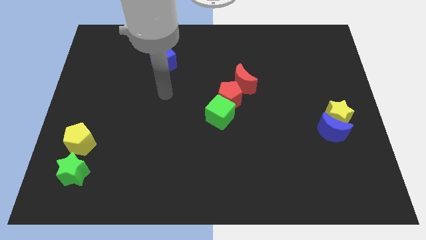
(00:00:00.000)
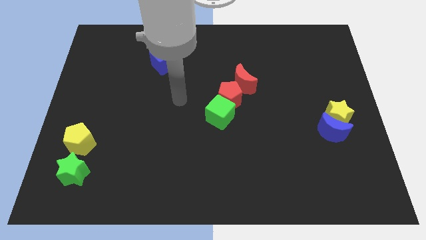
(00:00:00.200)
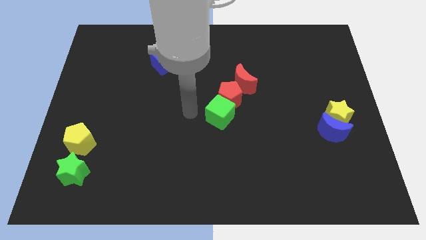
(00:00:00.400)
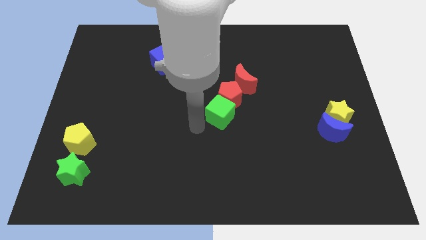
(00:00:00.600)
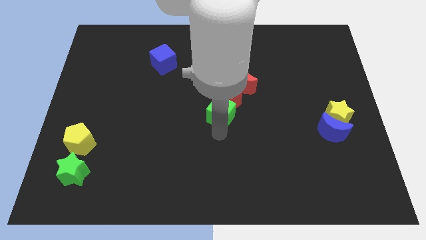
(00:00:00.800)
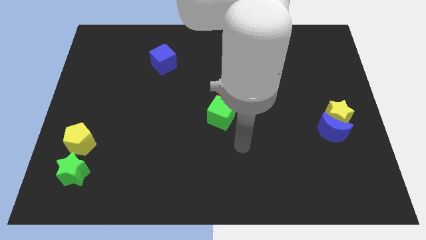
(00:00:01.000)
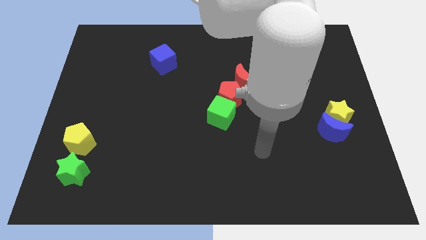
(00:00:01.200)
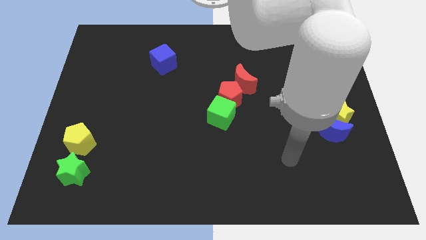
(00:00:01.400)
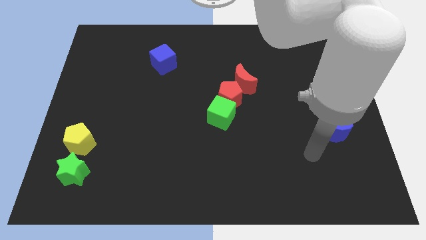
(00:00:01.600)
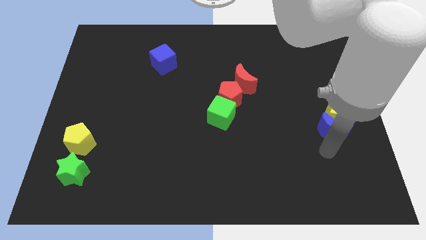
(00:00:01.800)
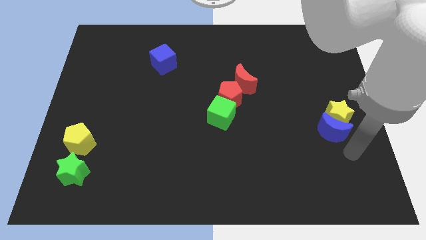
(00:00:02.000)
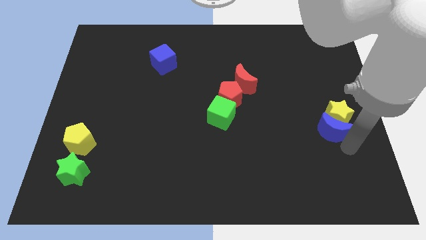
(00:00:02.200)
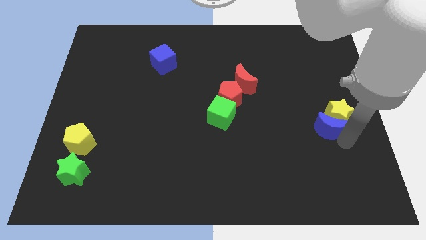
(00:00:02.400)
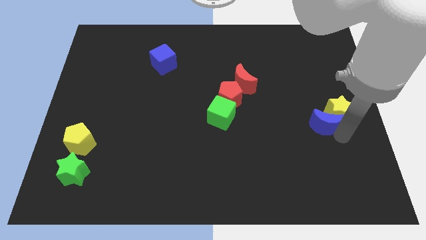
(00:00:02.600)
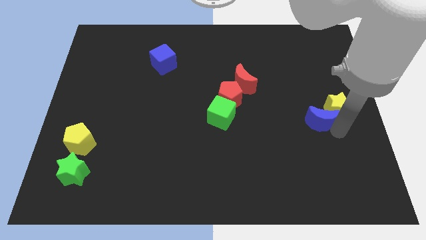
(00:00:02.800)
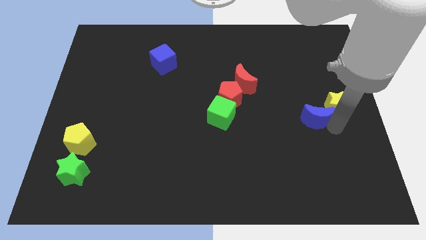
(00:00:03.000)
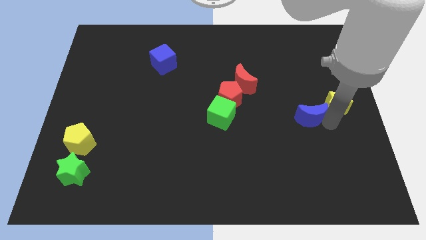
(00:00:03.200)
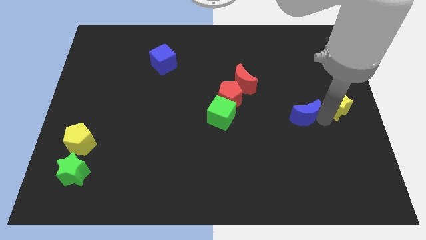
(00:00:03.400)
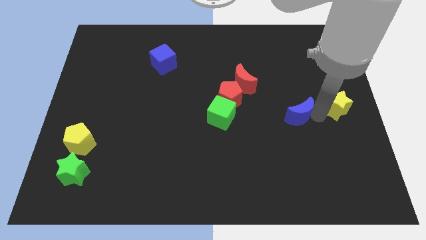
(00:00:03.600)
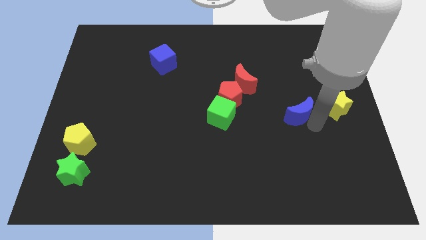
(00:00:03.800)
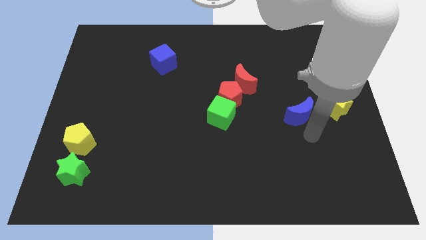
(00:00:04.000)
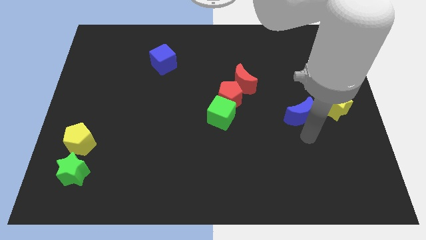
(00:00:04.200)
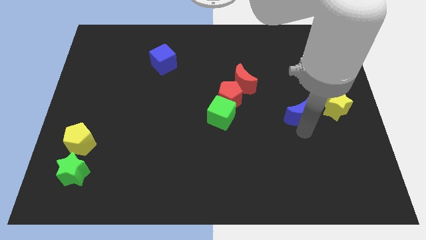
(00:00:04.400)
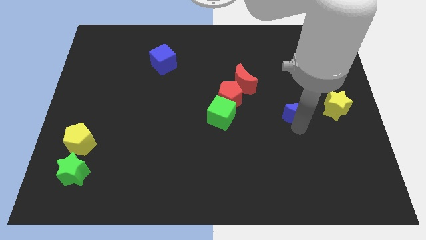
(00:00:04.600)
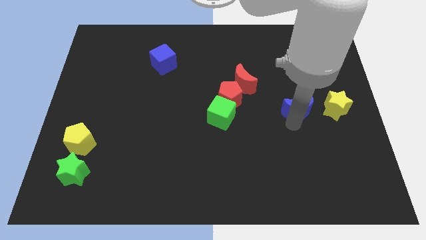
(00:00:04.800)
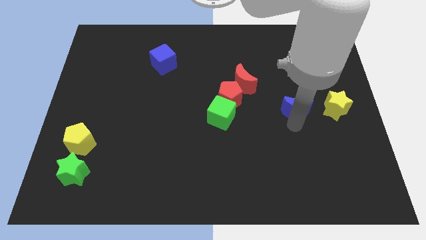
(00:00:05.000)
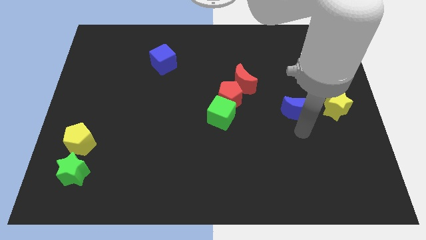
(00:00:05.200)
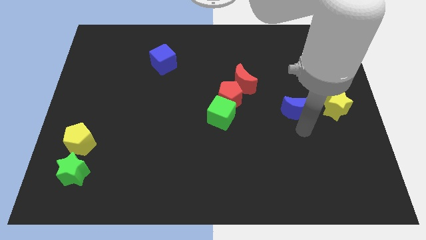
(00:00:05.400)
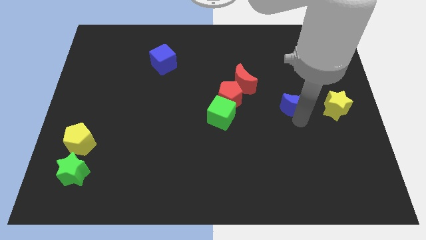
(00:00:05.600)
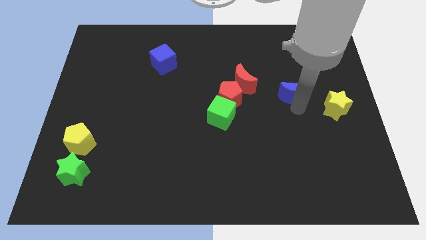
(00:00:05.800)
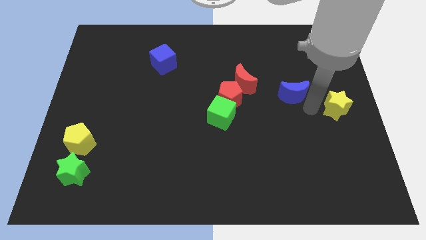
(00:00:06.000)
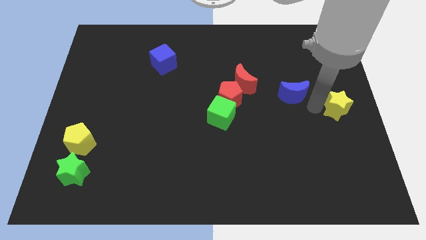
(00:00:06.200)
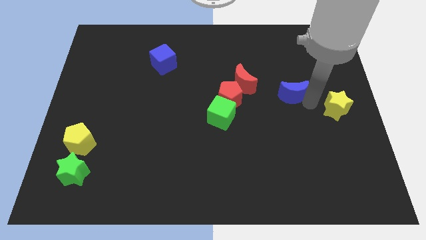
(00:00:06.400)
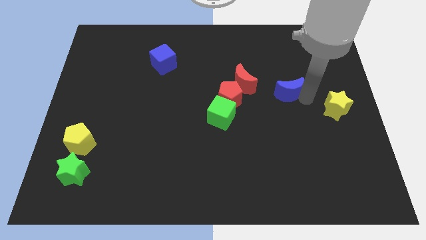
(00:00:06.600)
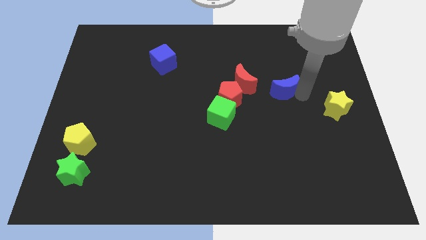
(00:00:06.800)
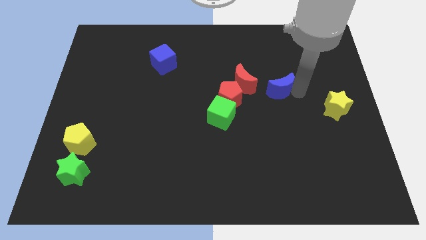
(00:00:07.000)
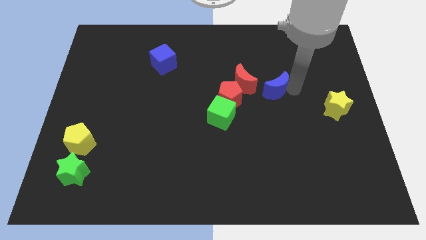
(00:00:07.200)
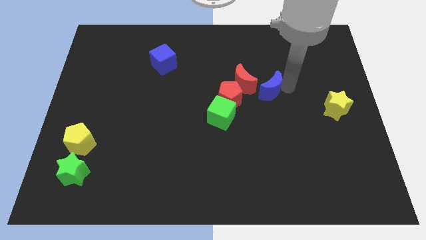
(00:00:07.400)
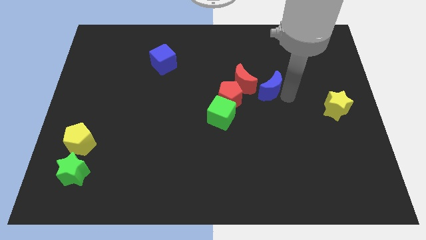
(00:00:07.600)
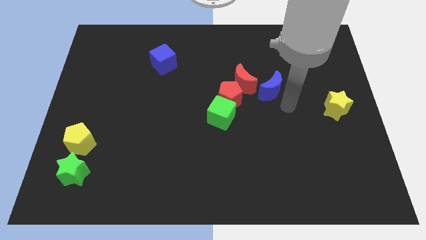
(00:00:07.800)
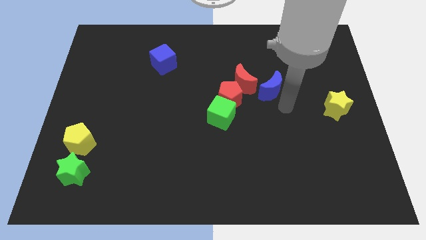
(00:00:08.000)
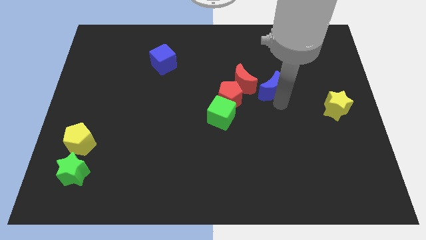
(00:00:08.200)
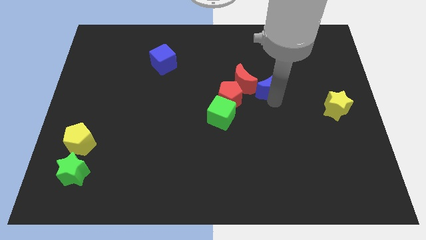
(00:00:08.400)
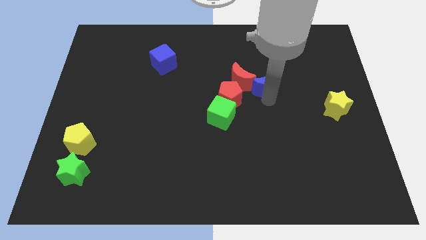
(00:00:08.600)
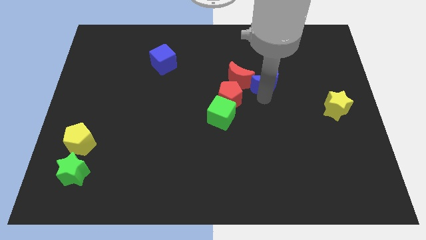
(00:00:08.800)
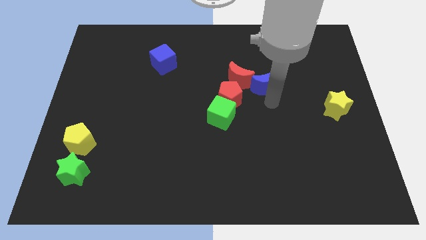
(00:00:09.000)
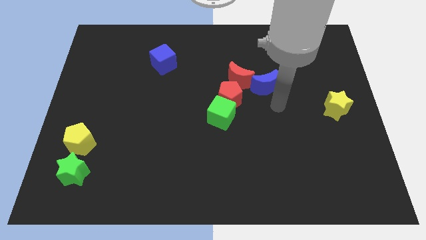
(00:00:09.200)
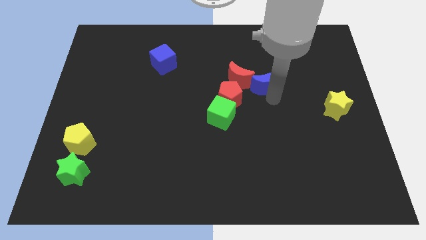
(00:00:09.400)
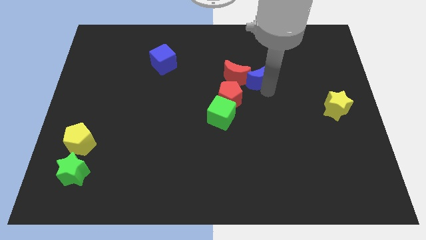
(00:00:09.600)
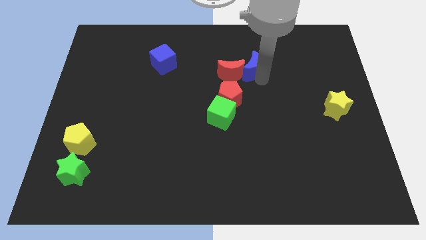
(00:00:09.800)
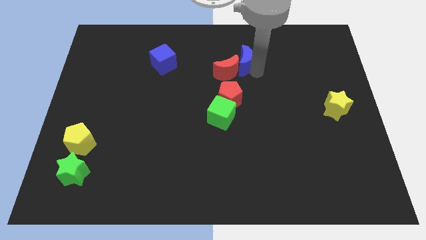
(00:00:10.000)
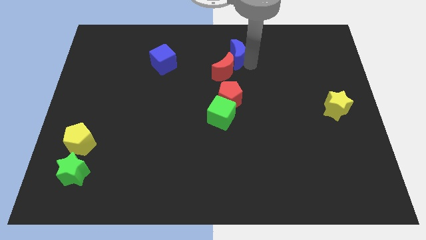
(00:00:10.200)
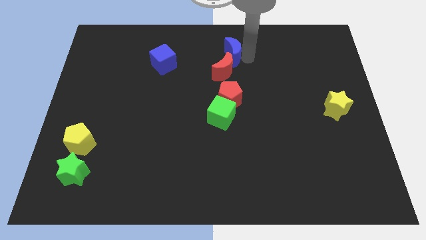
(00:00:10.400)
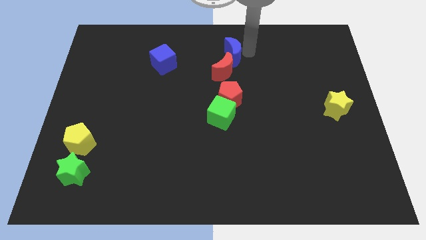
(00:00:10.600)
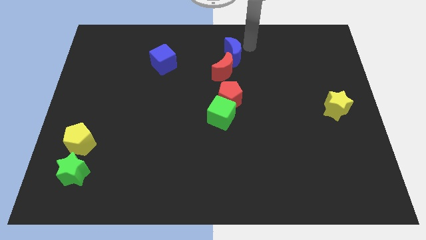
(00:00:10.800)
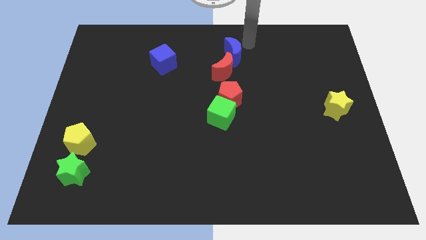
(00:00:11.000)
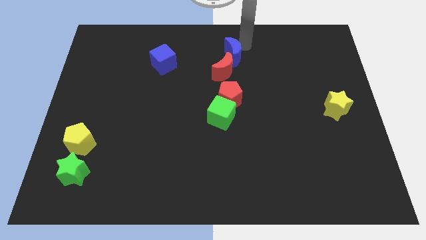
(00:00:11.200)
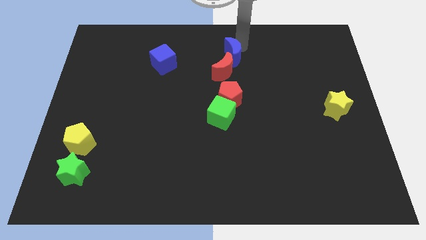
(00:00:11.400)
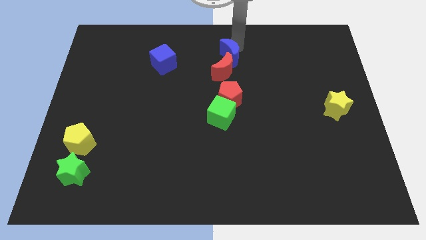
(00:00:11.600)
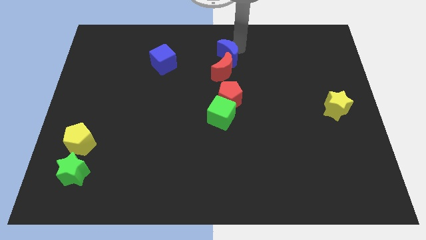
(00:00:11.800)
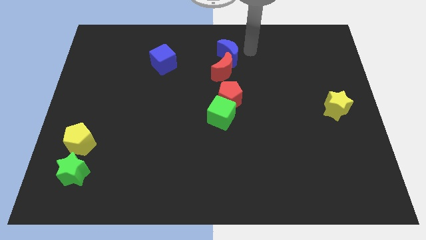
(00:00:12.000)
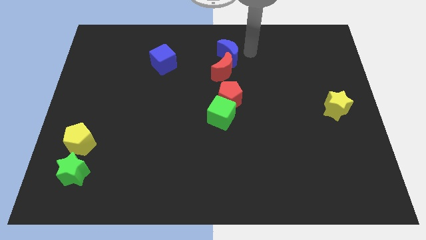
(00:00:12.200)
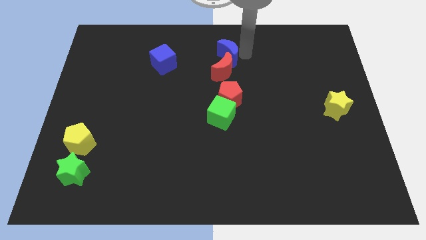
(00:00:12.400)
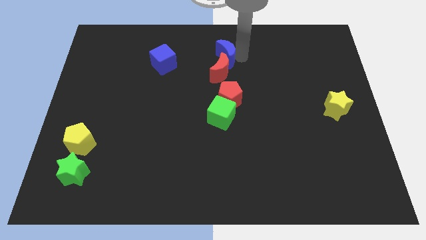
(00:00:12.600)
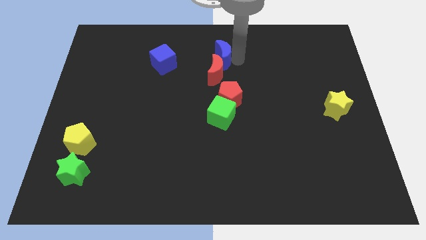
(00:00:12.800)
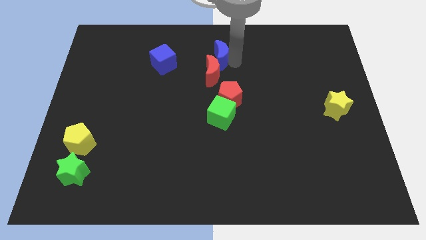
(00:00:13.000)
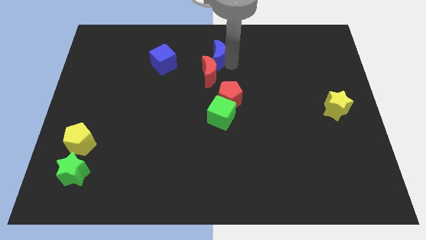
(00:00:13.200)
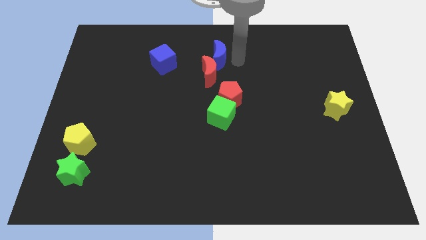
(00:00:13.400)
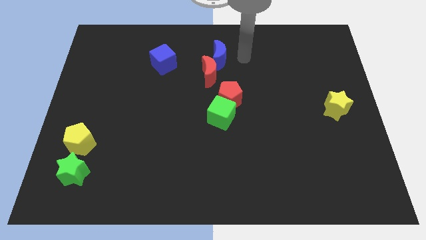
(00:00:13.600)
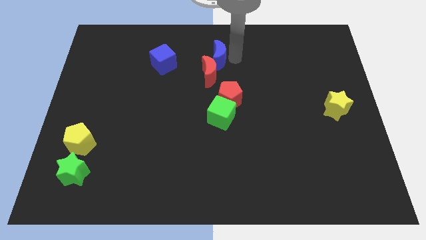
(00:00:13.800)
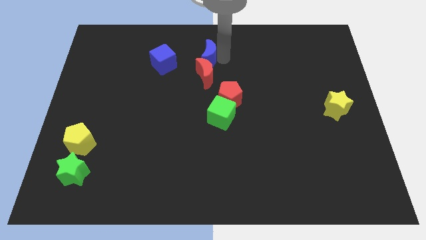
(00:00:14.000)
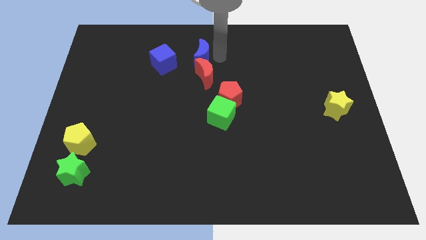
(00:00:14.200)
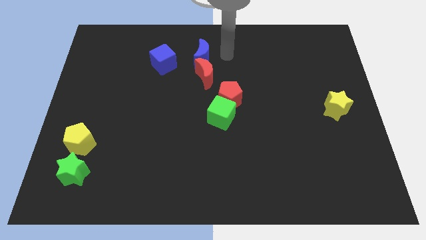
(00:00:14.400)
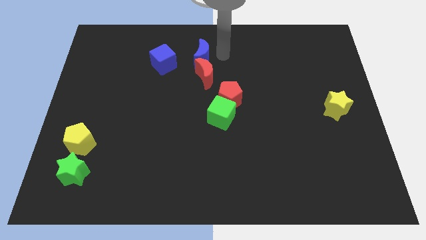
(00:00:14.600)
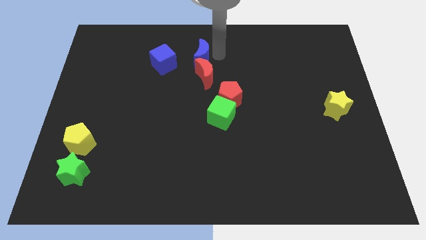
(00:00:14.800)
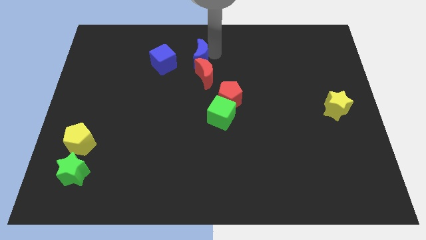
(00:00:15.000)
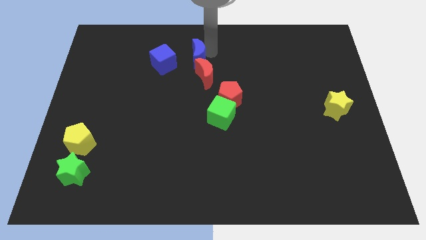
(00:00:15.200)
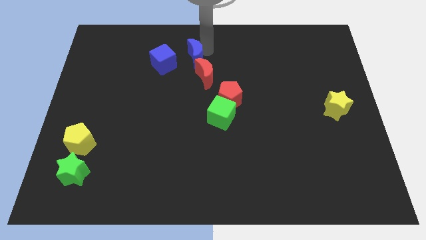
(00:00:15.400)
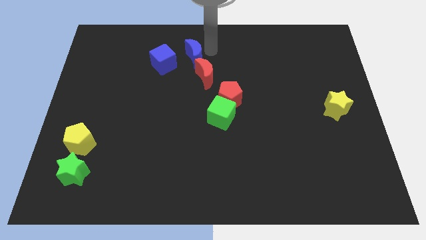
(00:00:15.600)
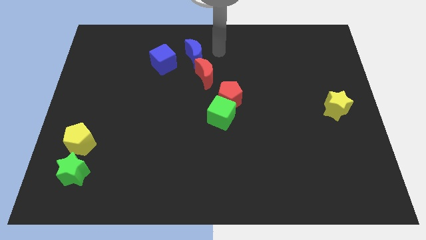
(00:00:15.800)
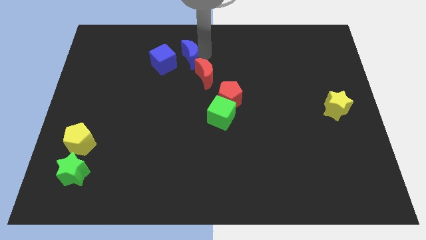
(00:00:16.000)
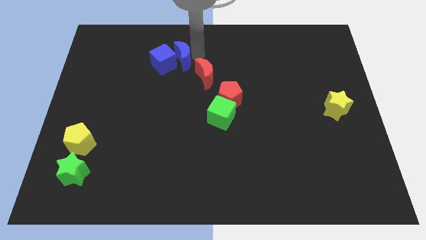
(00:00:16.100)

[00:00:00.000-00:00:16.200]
slide the blue moon close to the blue cube
